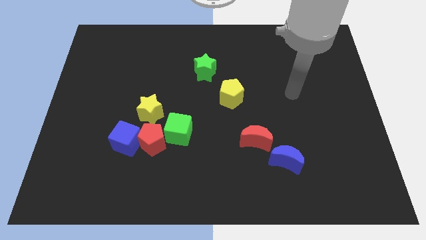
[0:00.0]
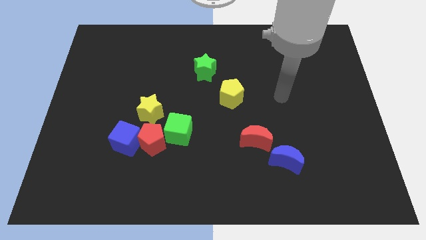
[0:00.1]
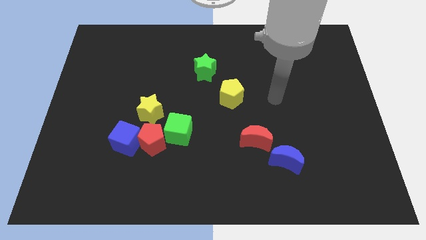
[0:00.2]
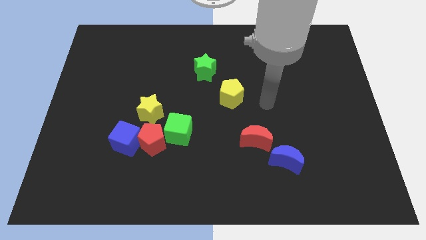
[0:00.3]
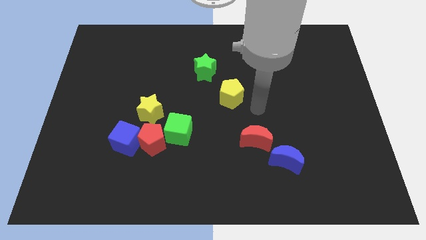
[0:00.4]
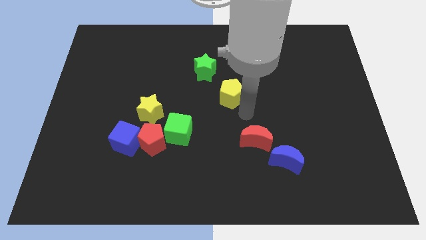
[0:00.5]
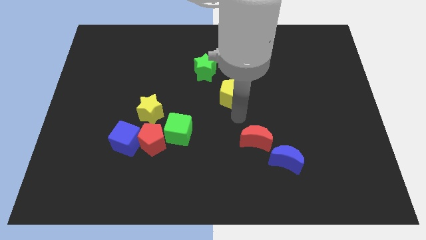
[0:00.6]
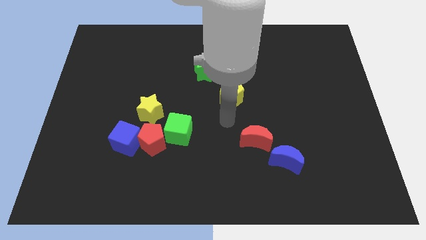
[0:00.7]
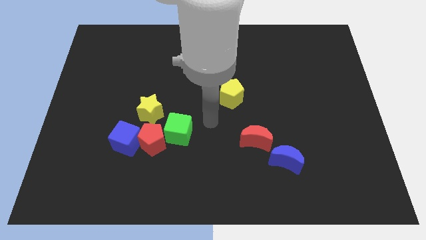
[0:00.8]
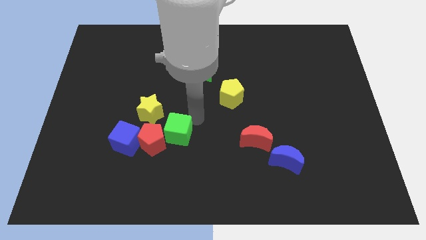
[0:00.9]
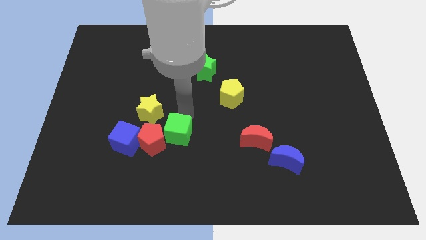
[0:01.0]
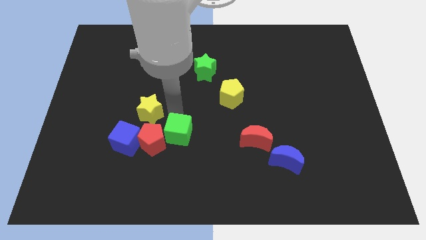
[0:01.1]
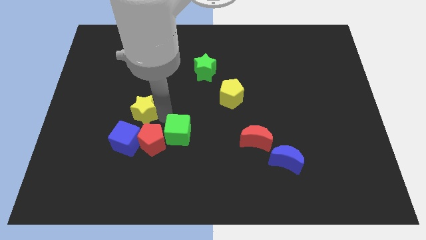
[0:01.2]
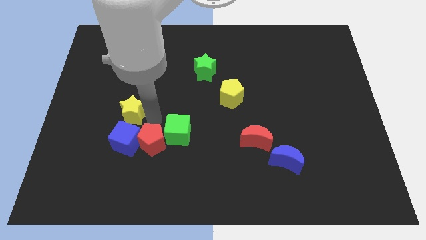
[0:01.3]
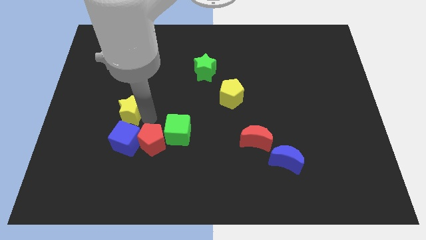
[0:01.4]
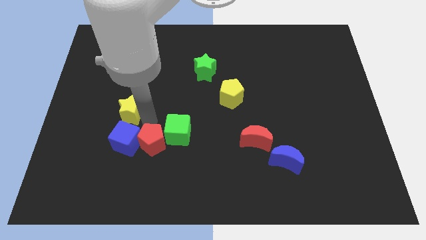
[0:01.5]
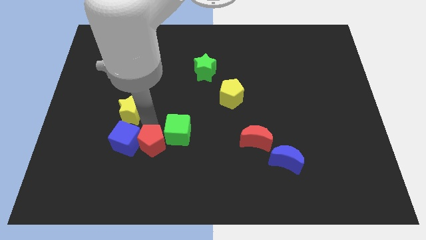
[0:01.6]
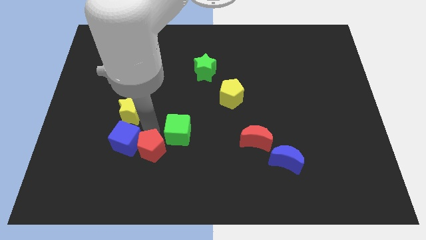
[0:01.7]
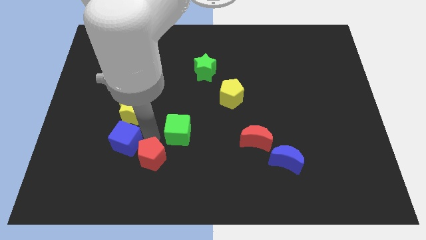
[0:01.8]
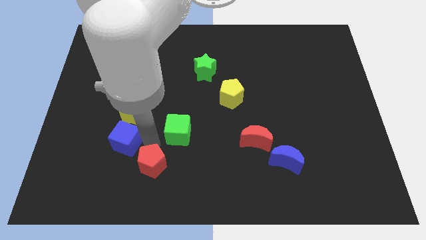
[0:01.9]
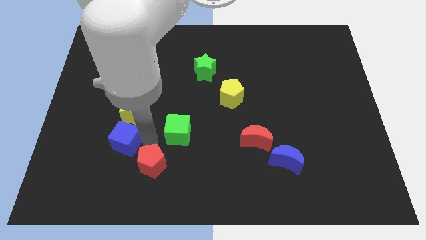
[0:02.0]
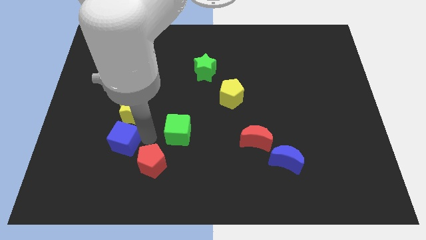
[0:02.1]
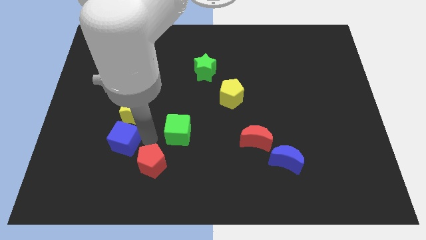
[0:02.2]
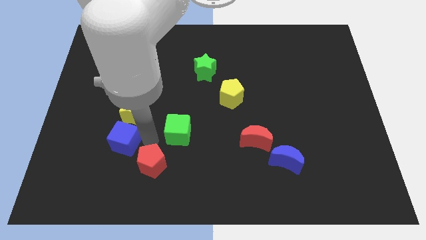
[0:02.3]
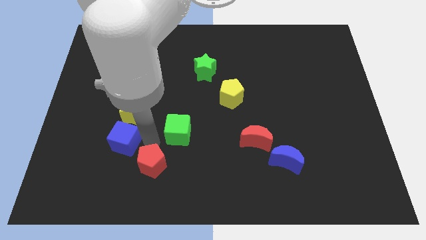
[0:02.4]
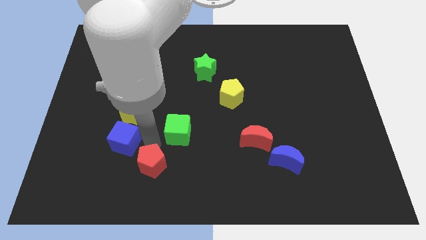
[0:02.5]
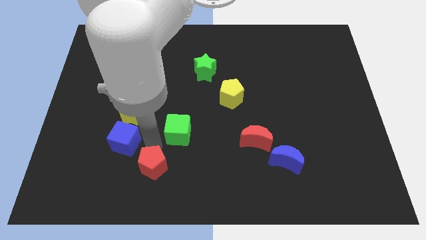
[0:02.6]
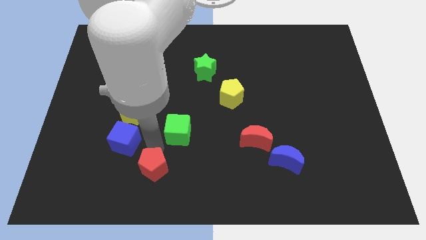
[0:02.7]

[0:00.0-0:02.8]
move the red pentagon away from the blue cube, green cube, and yellow star

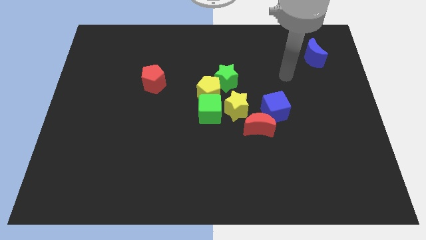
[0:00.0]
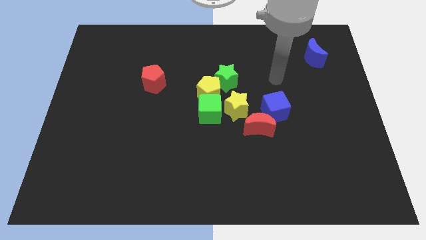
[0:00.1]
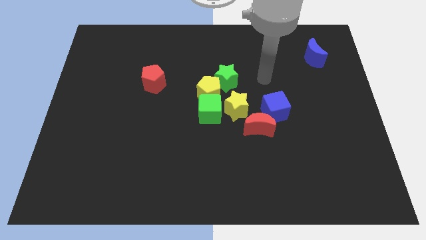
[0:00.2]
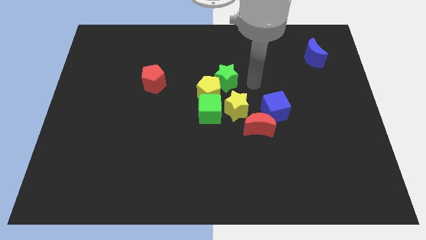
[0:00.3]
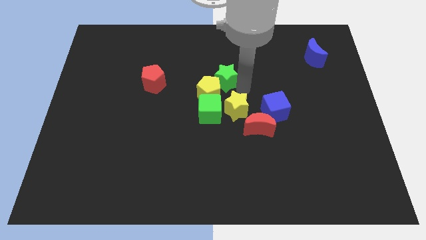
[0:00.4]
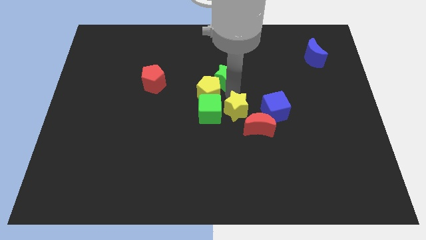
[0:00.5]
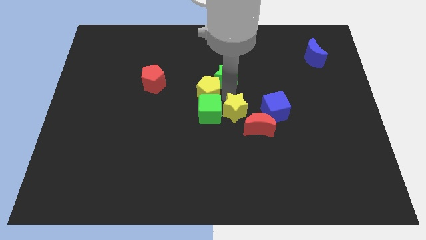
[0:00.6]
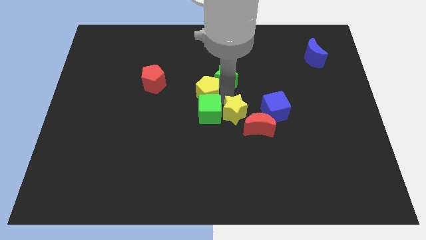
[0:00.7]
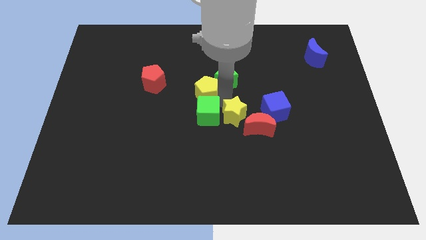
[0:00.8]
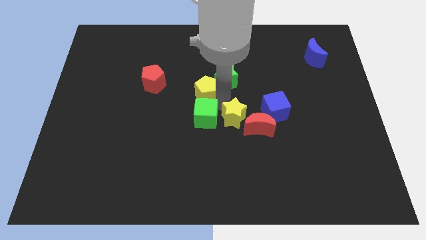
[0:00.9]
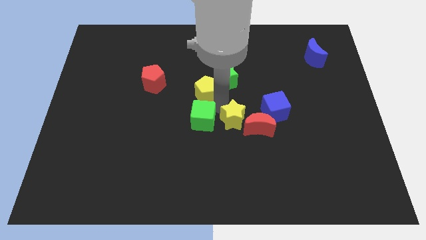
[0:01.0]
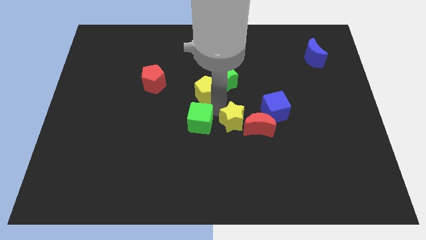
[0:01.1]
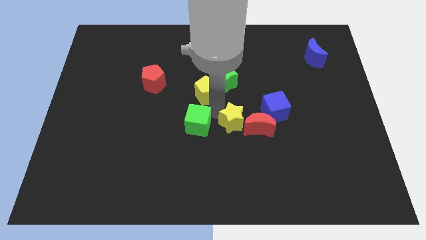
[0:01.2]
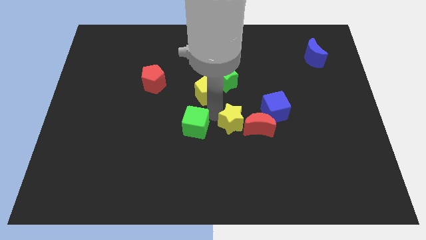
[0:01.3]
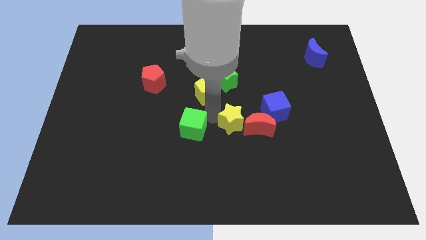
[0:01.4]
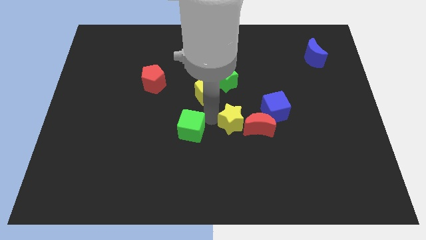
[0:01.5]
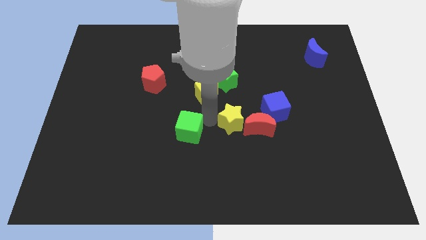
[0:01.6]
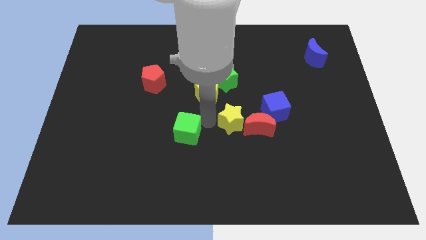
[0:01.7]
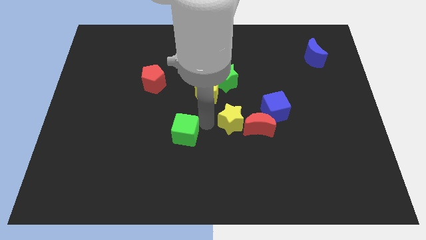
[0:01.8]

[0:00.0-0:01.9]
pull the green cube apart from the yellow pentagon and yellow star

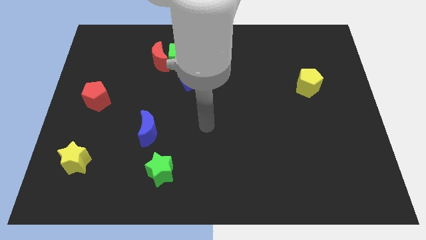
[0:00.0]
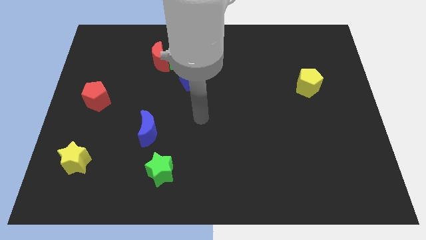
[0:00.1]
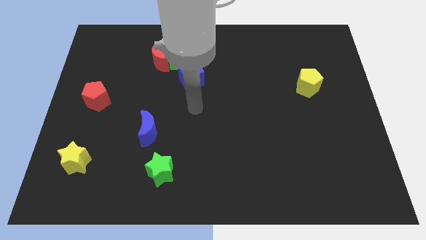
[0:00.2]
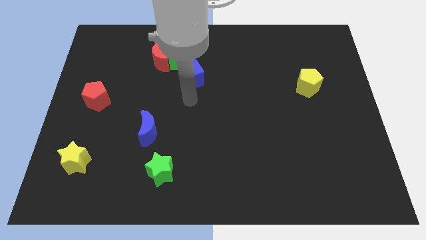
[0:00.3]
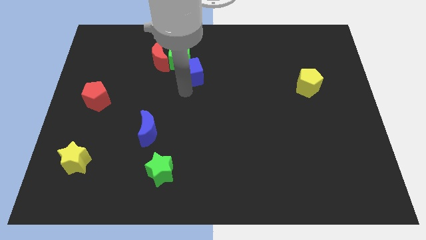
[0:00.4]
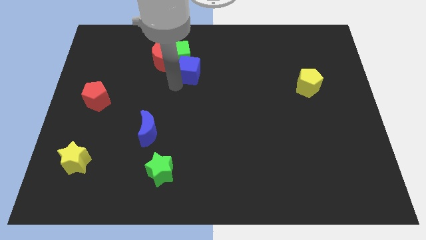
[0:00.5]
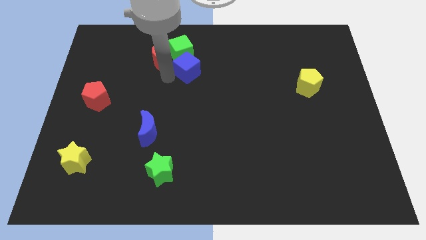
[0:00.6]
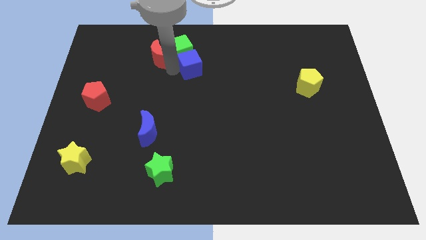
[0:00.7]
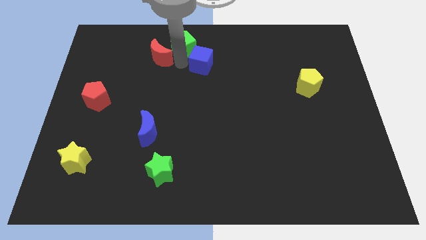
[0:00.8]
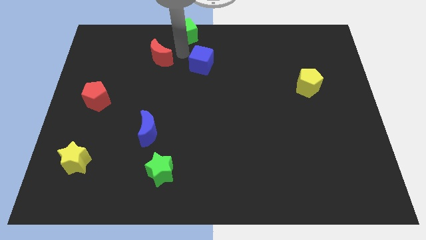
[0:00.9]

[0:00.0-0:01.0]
pull the red moon apart from the green cube

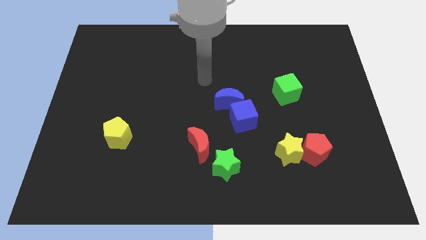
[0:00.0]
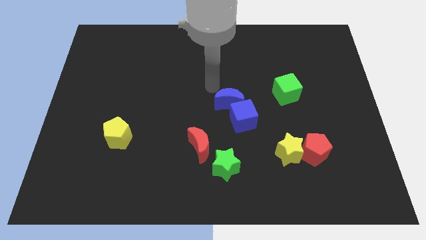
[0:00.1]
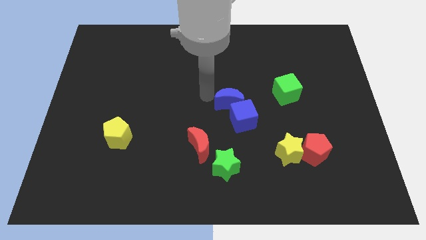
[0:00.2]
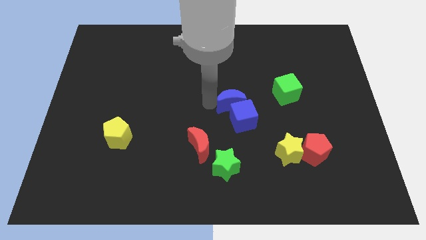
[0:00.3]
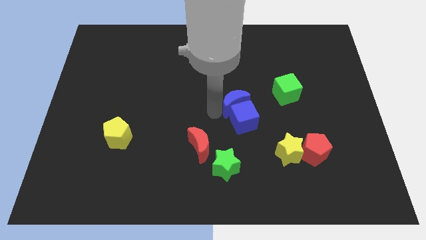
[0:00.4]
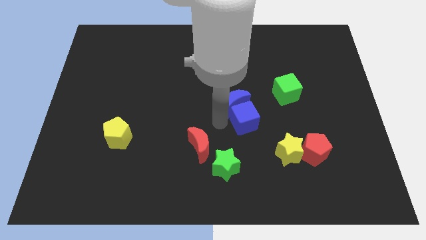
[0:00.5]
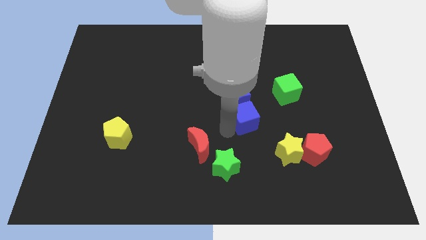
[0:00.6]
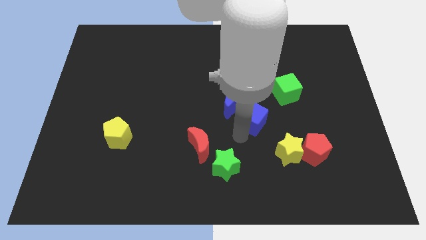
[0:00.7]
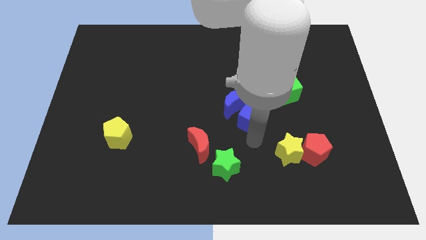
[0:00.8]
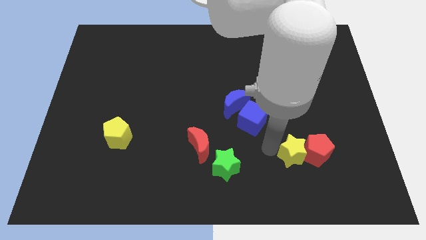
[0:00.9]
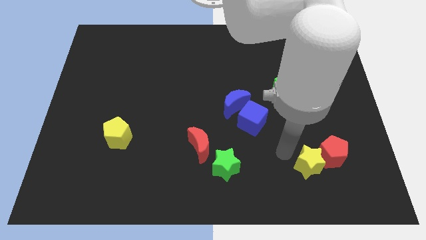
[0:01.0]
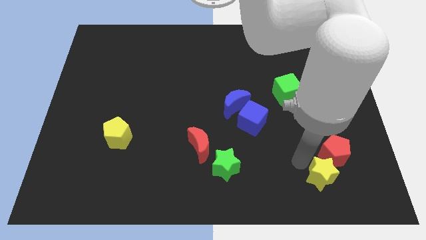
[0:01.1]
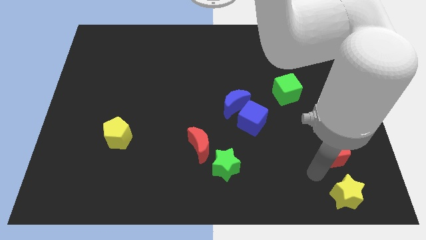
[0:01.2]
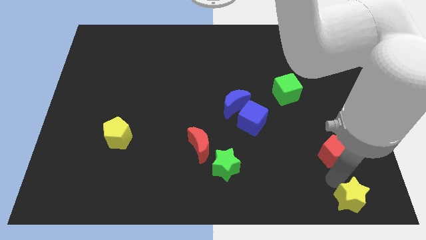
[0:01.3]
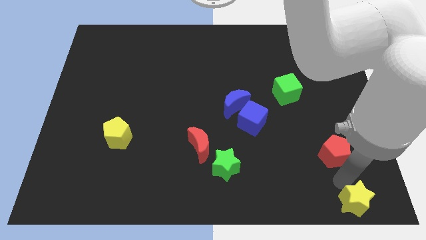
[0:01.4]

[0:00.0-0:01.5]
move the red pentagon away from the yellow star

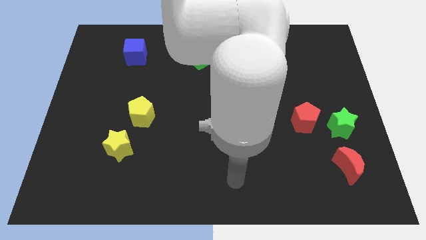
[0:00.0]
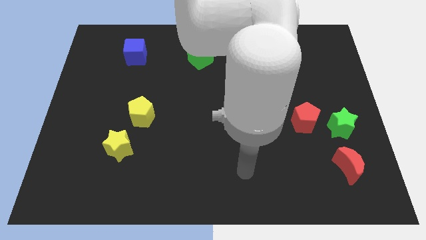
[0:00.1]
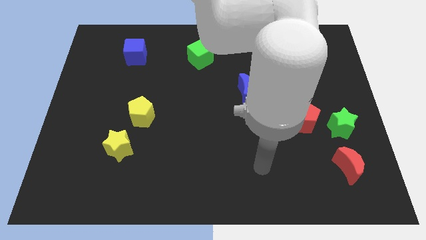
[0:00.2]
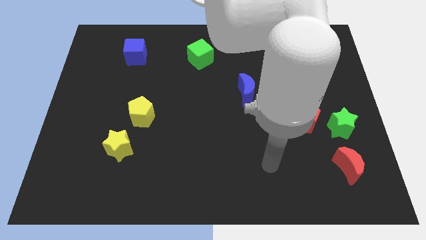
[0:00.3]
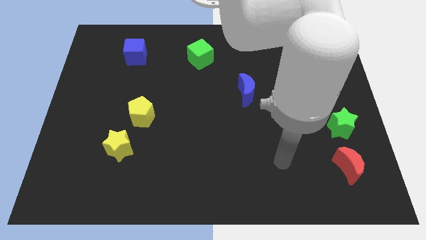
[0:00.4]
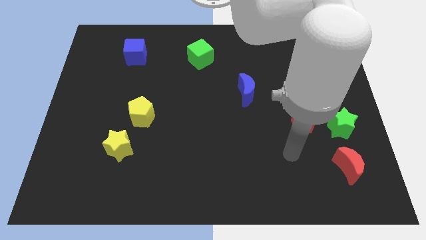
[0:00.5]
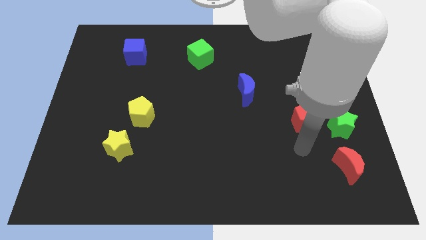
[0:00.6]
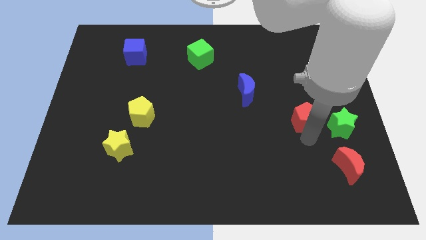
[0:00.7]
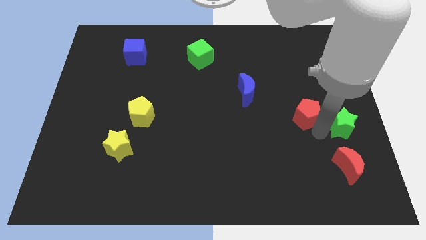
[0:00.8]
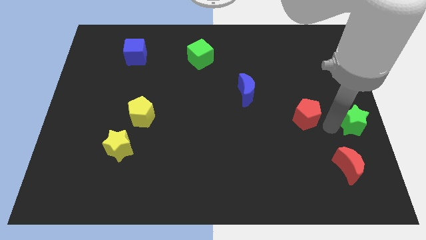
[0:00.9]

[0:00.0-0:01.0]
separate the red pentagon from the green star

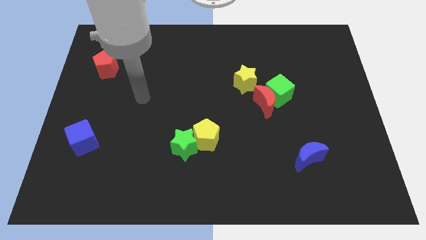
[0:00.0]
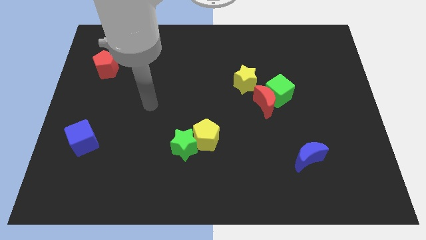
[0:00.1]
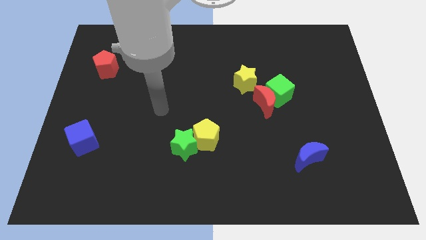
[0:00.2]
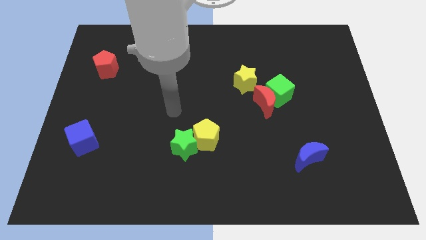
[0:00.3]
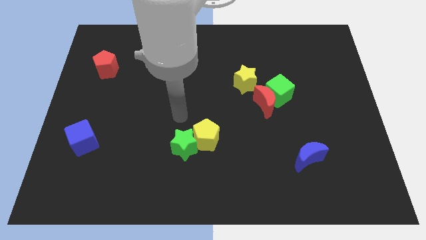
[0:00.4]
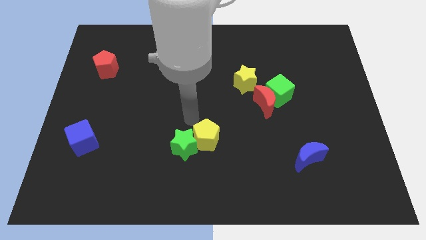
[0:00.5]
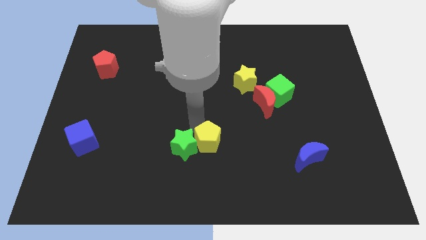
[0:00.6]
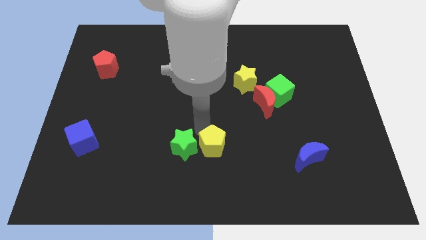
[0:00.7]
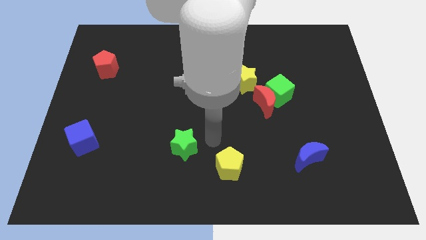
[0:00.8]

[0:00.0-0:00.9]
pull the green star apart from the yellow pentagon
